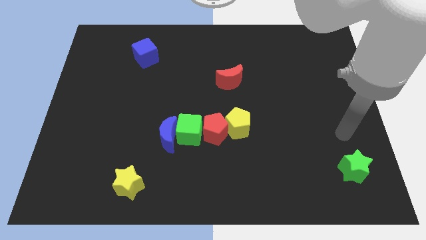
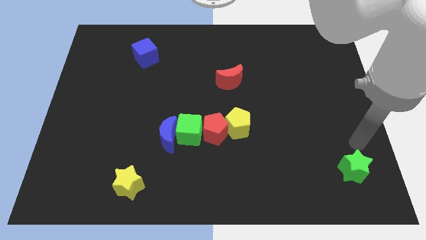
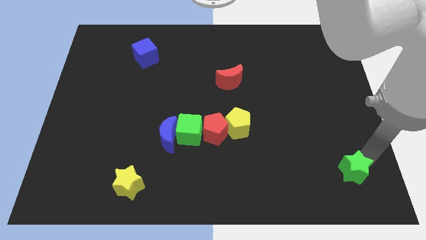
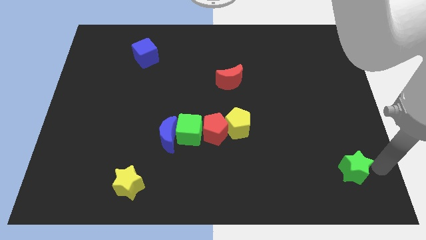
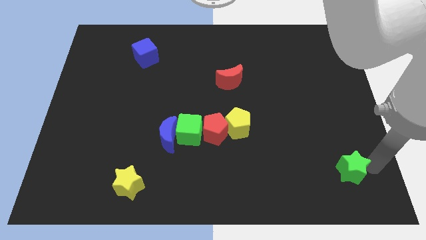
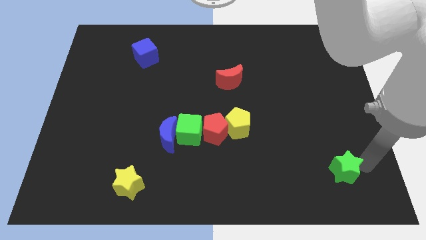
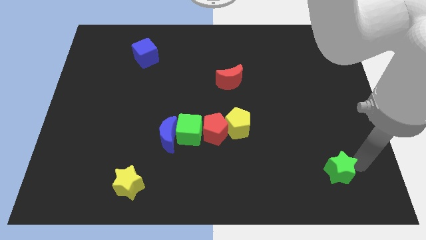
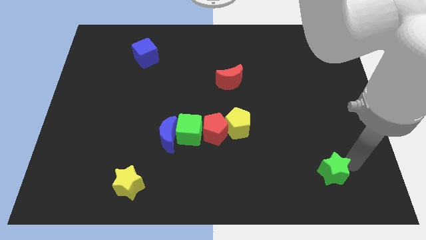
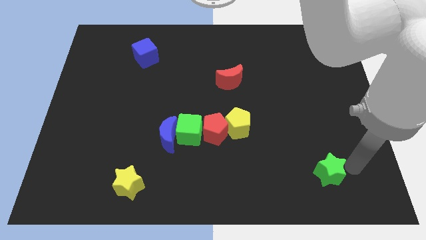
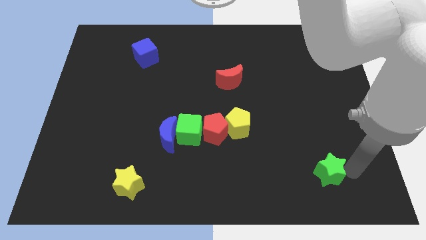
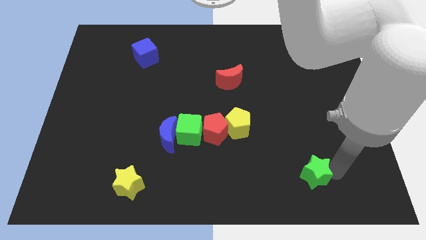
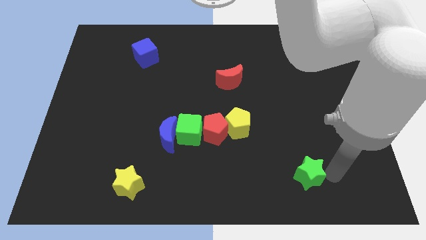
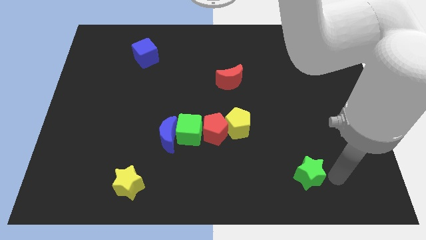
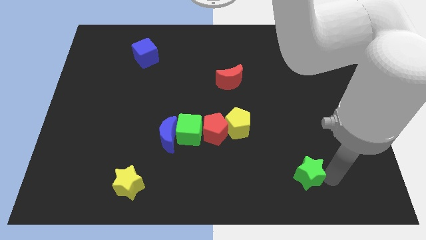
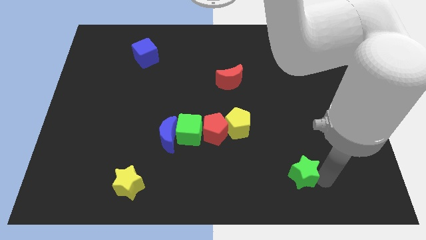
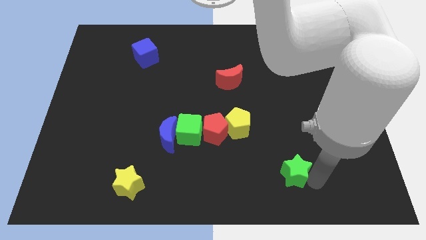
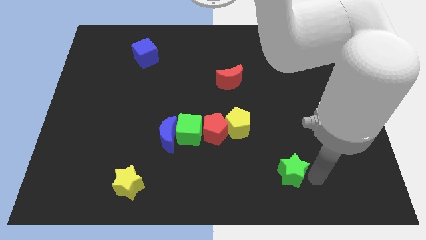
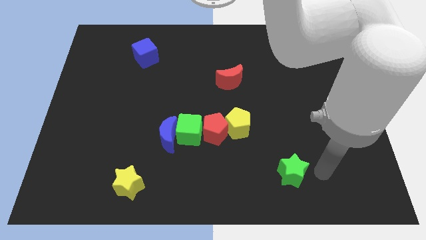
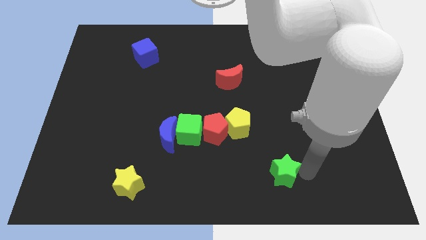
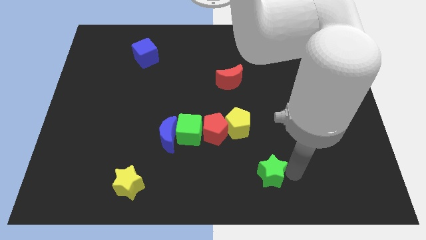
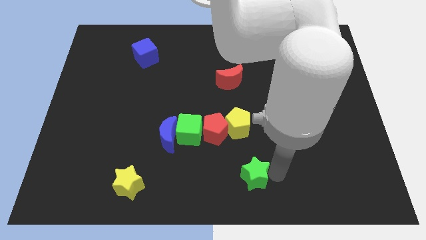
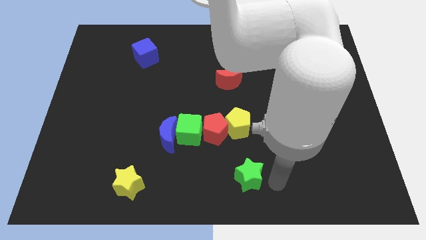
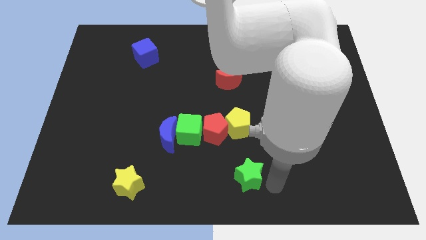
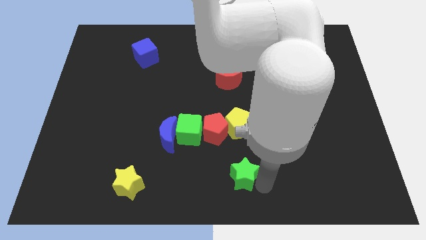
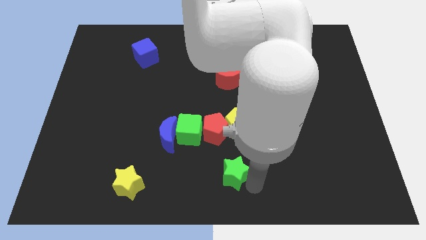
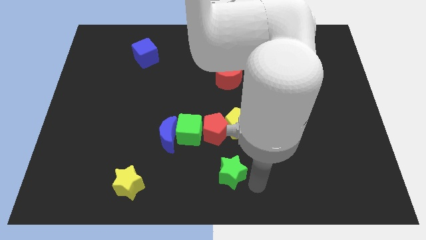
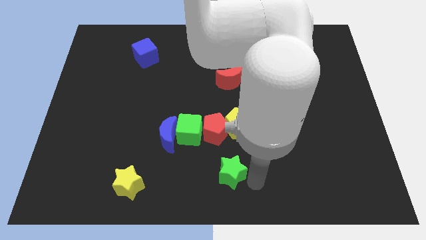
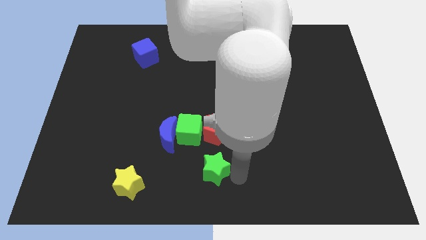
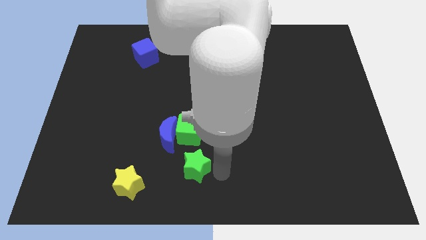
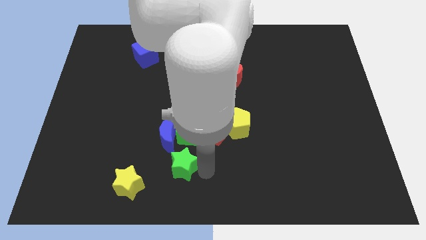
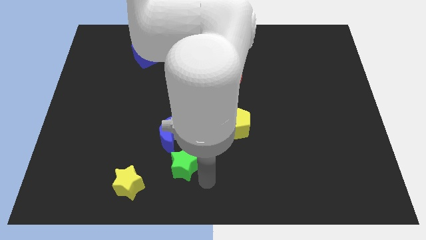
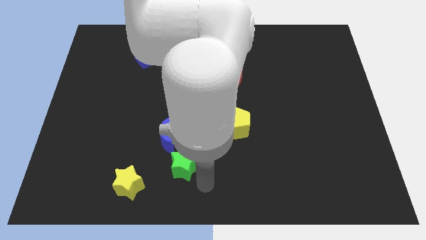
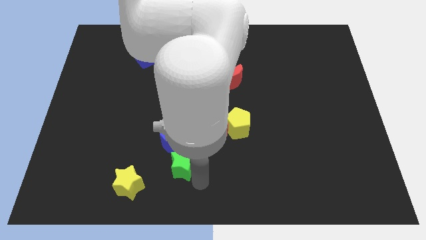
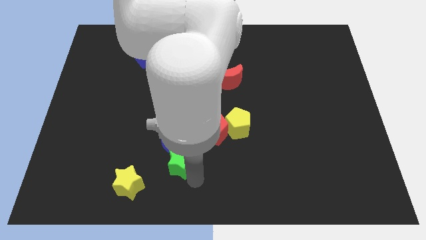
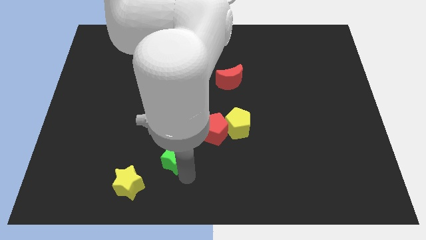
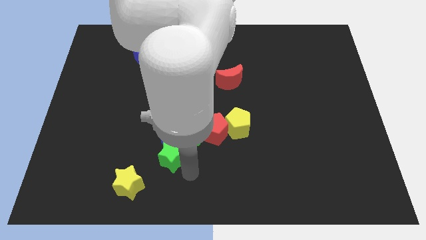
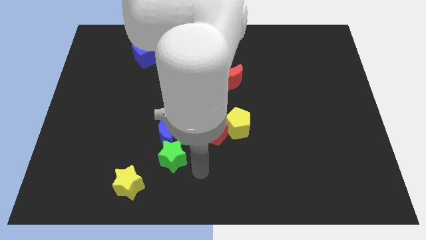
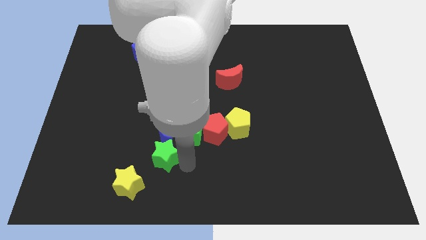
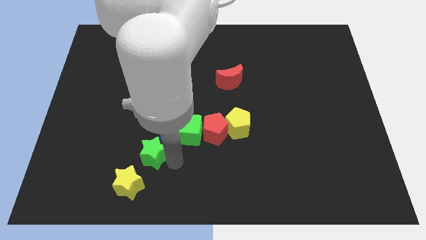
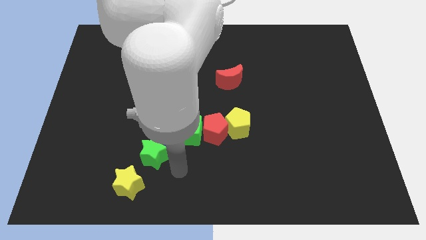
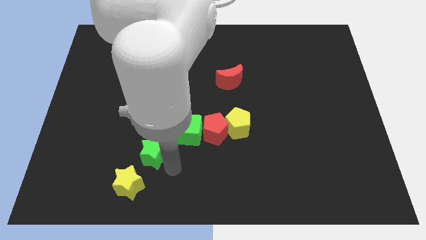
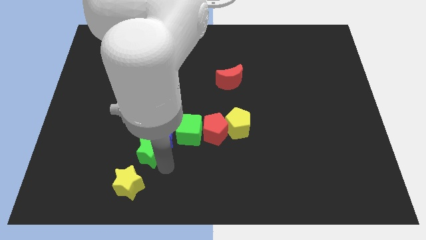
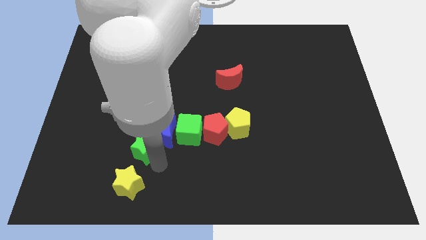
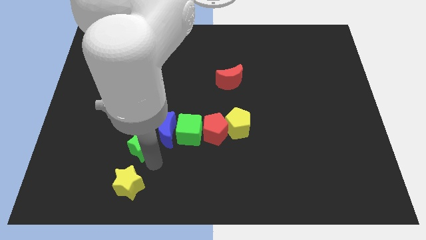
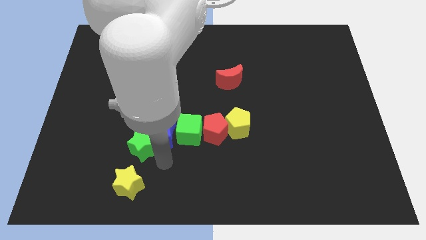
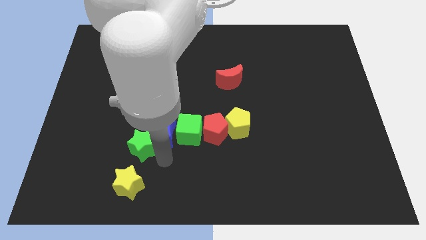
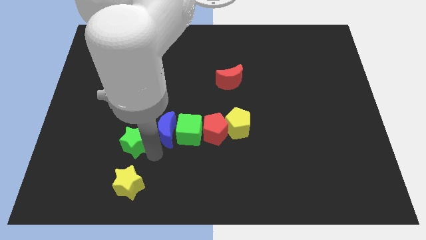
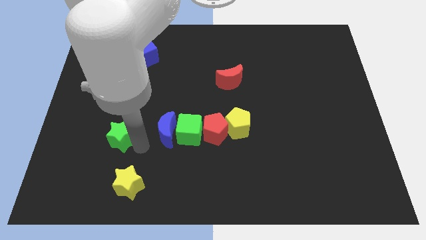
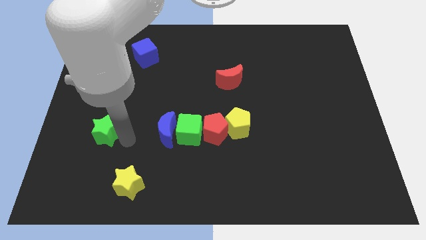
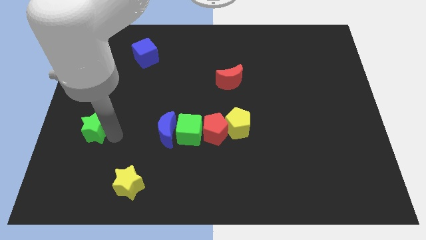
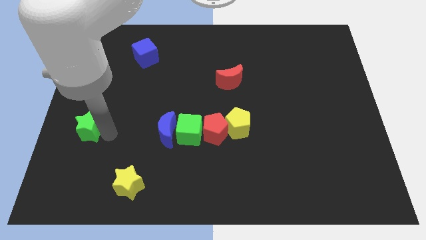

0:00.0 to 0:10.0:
put the green star to the left side of the board

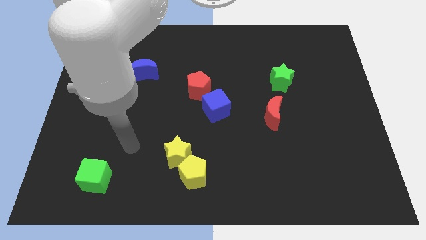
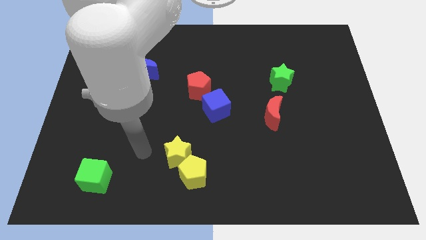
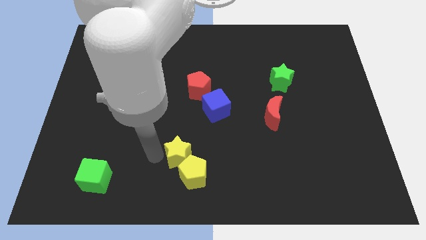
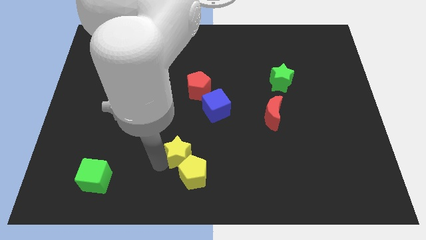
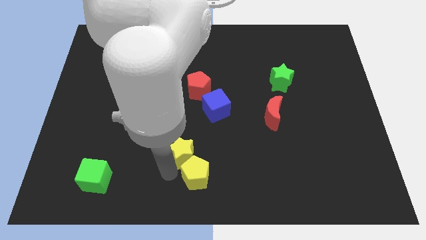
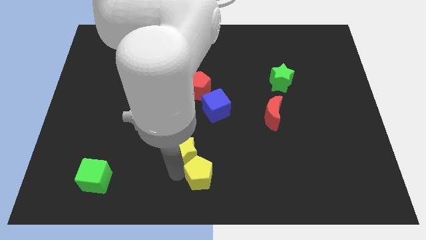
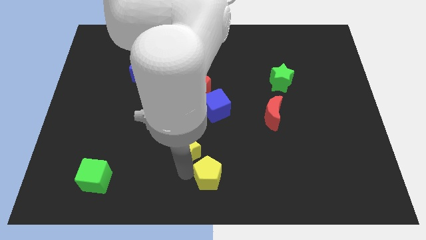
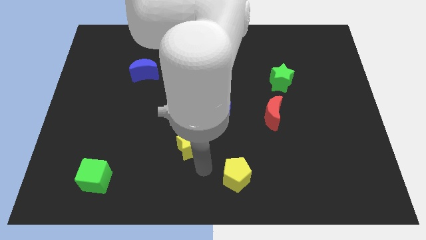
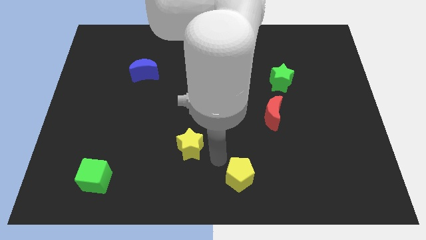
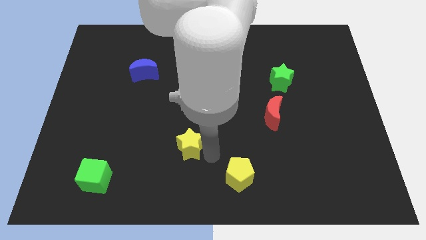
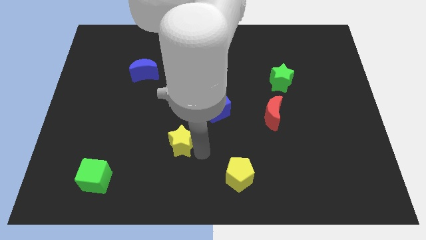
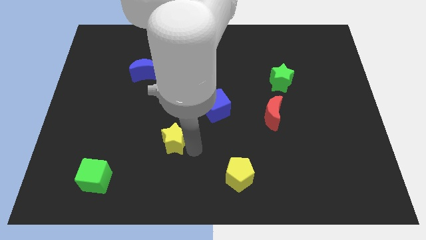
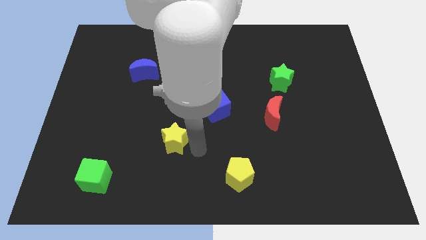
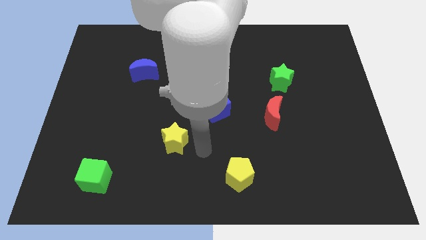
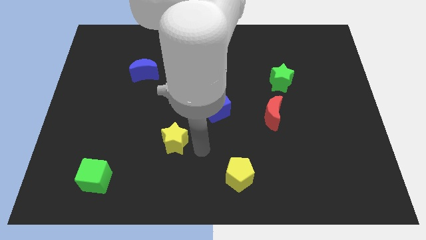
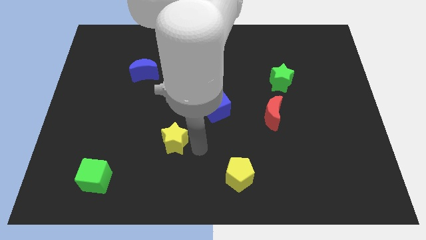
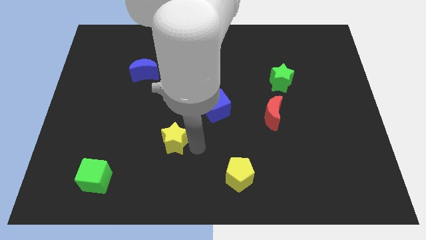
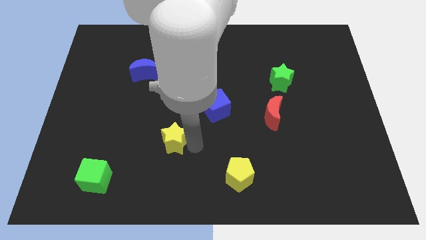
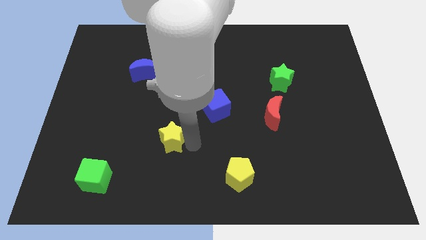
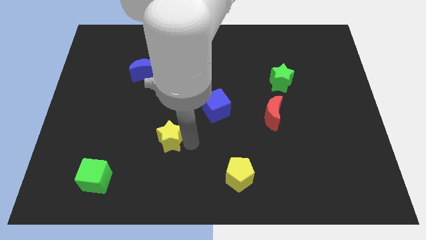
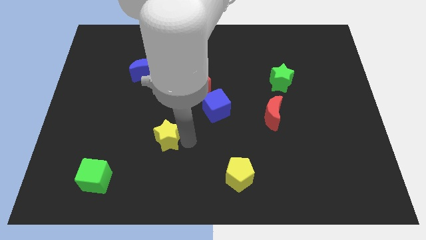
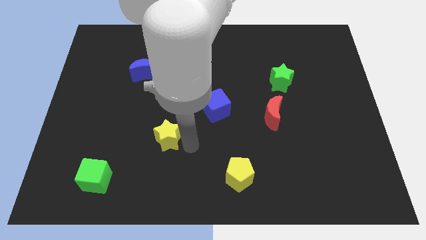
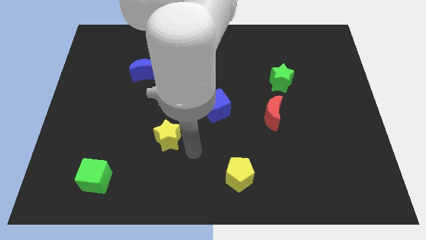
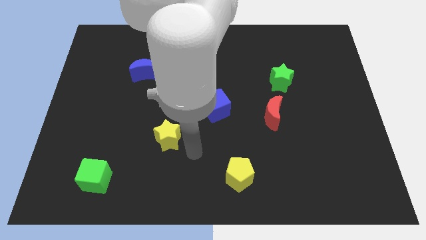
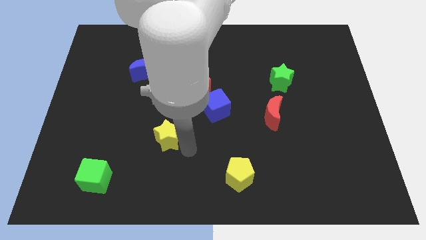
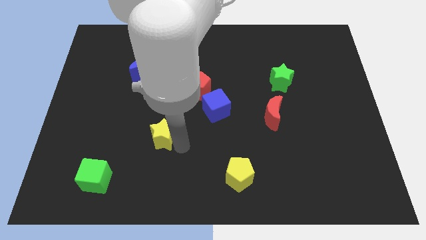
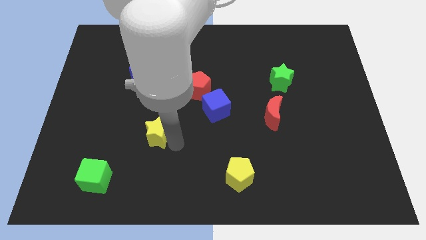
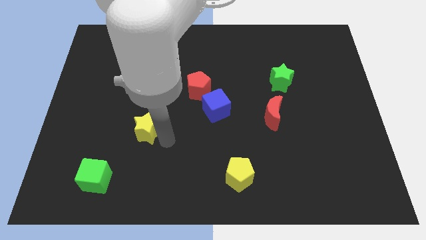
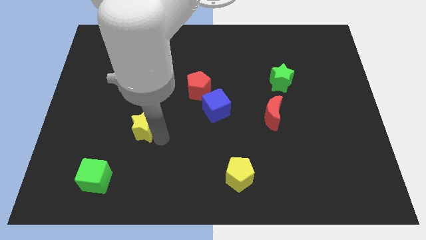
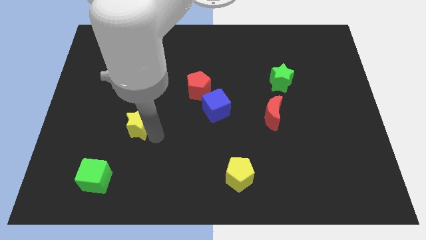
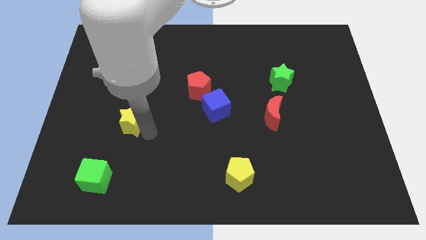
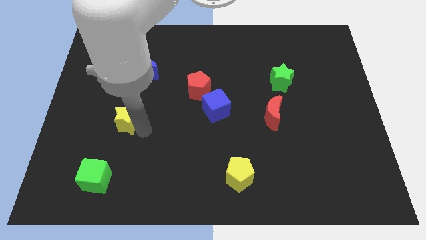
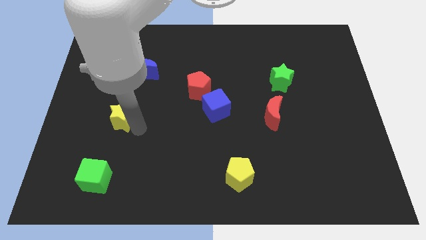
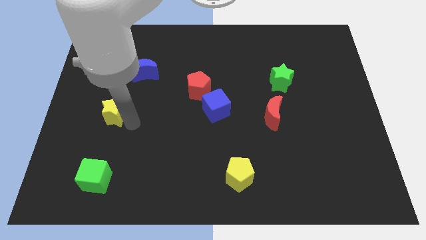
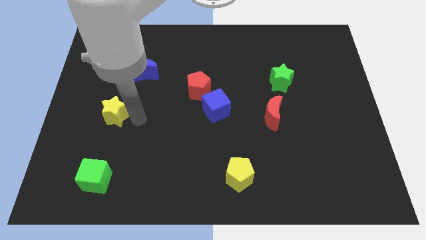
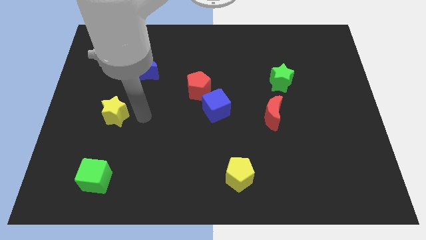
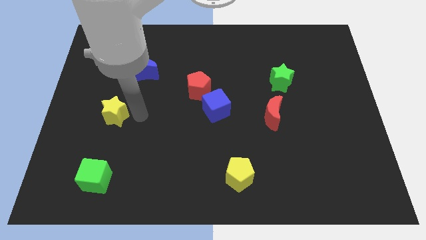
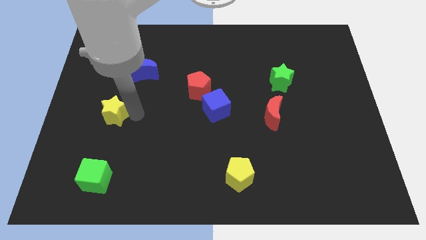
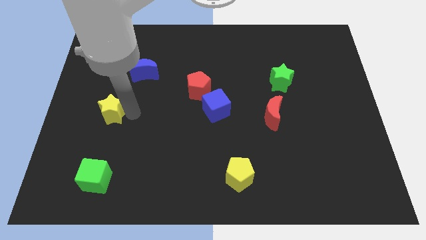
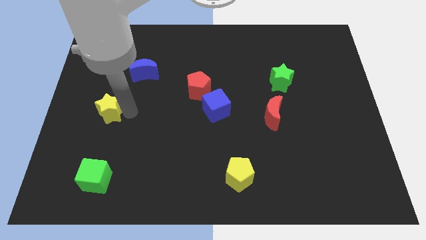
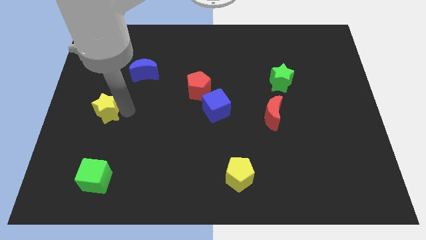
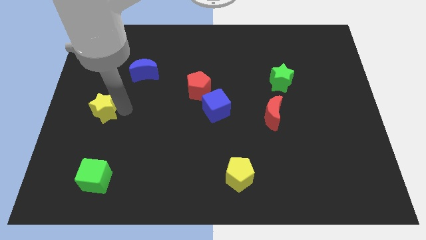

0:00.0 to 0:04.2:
push the yellow star to the left side
